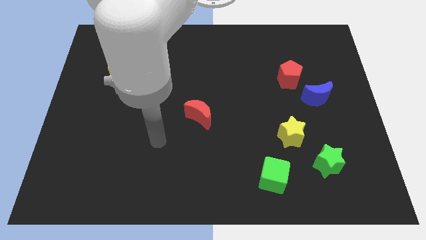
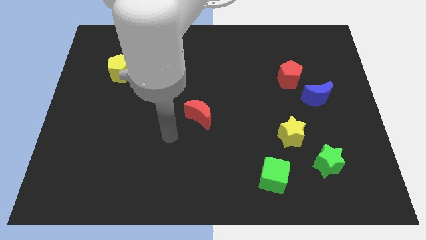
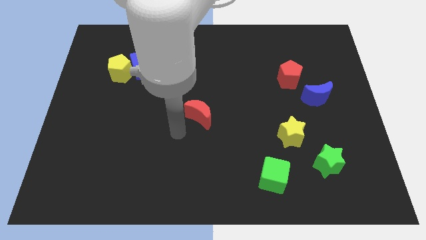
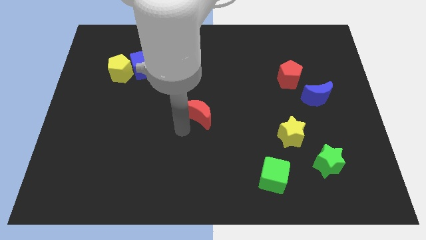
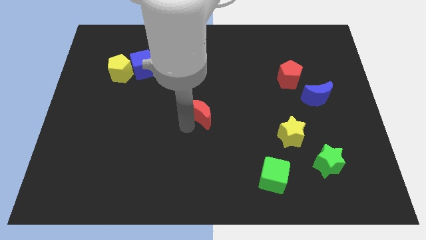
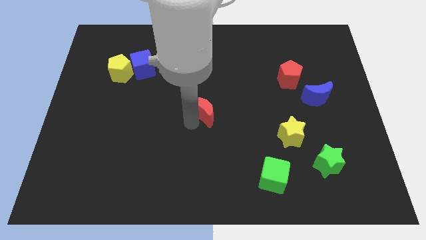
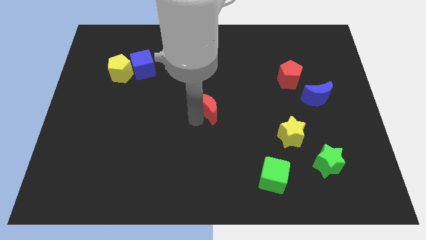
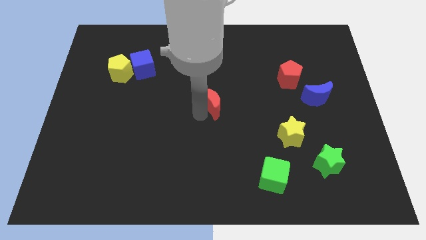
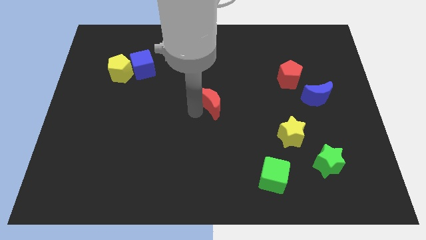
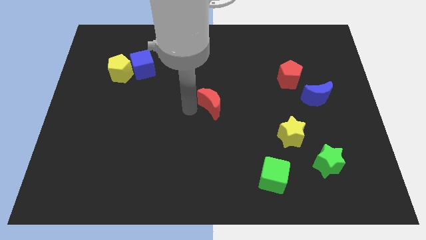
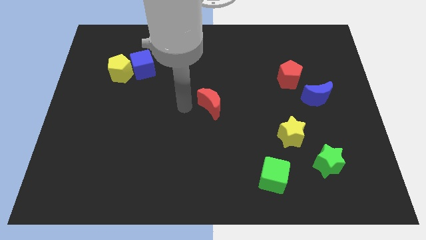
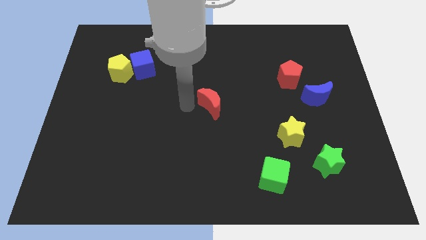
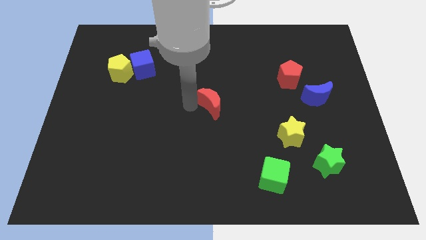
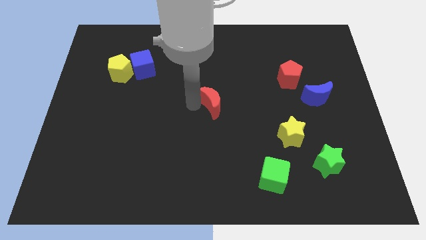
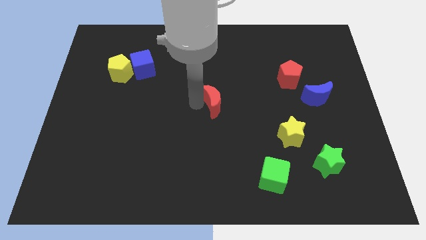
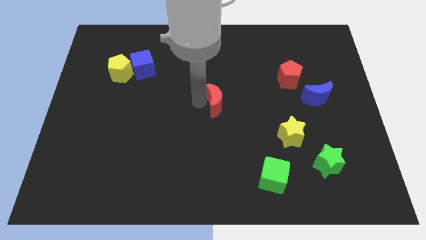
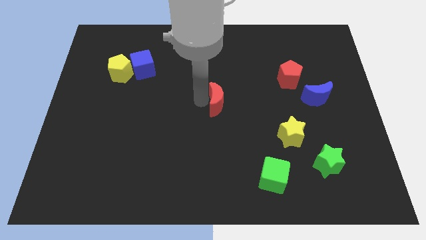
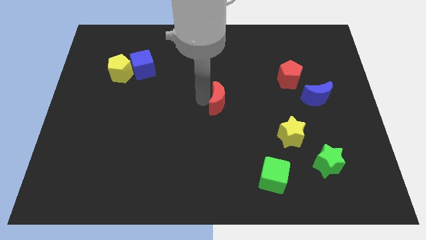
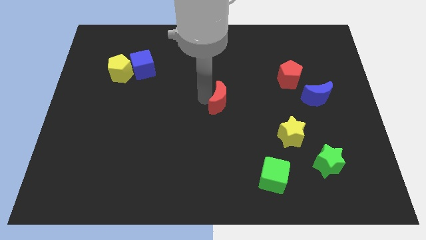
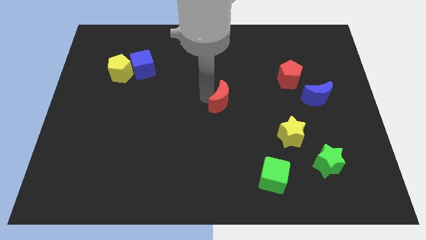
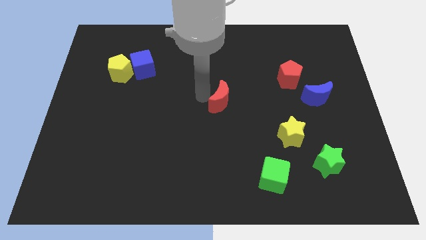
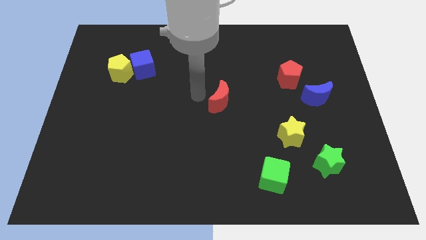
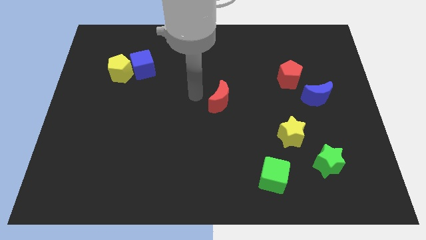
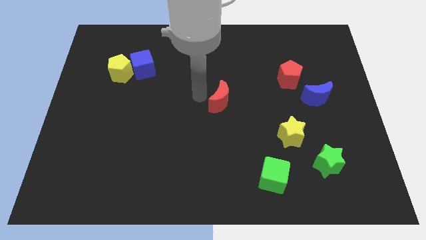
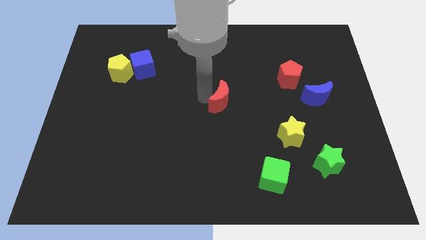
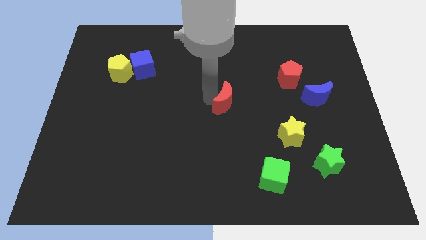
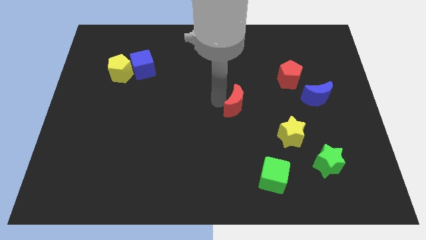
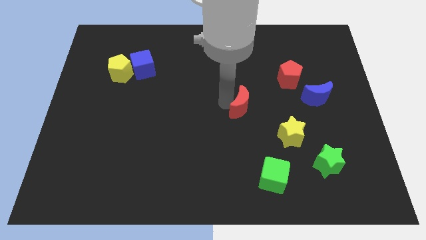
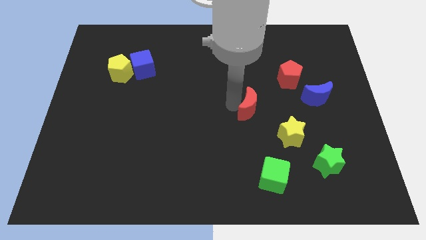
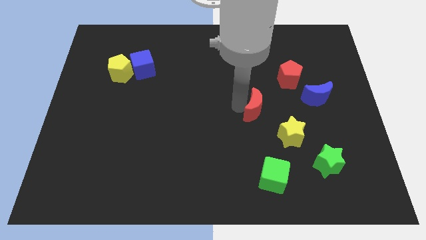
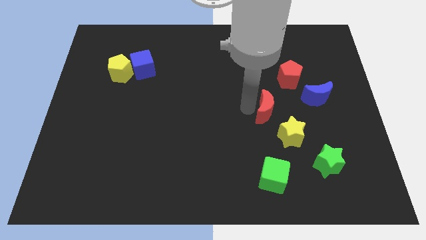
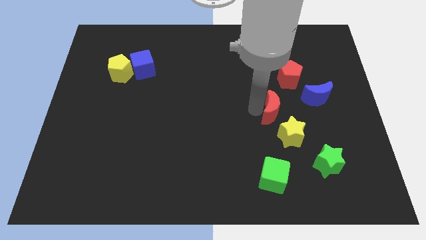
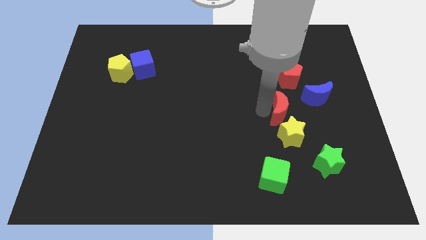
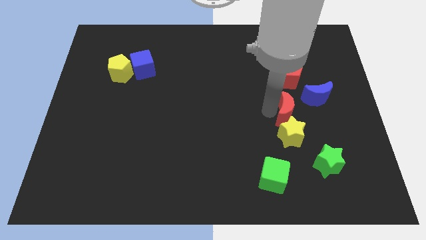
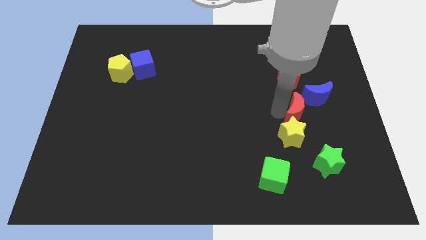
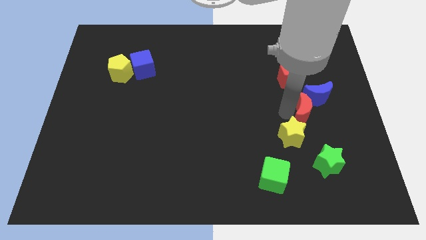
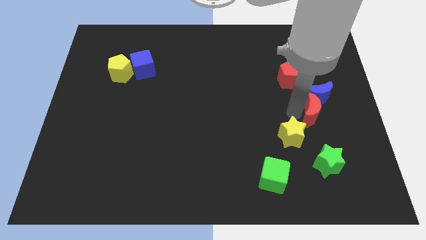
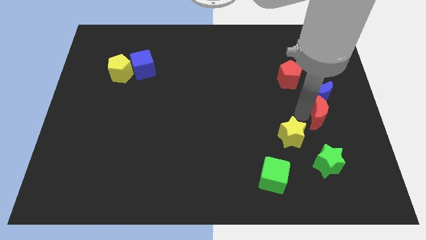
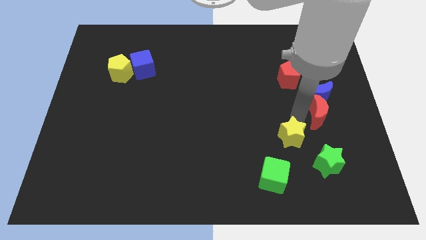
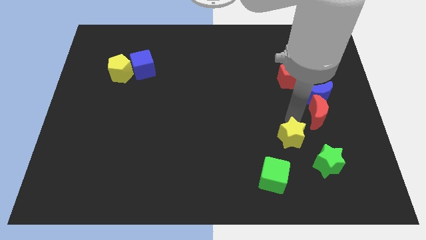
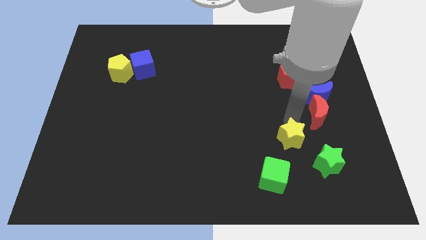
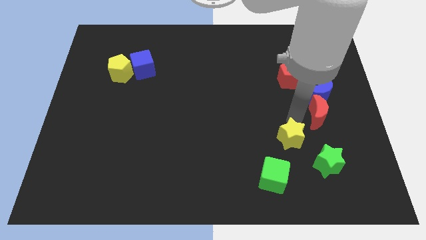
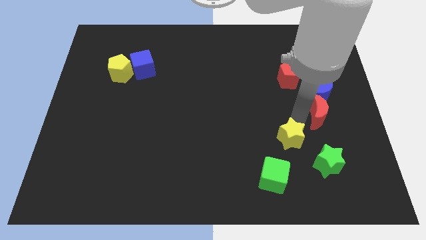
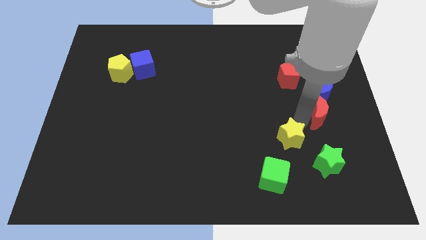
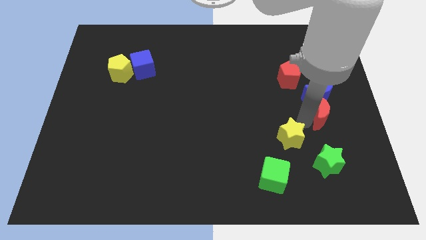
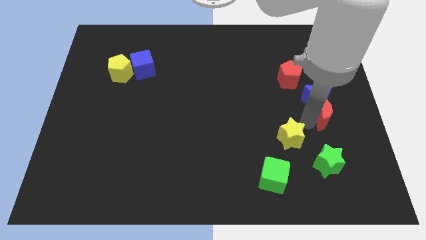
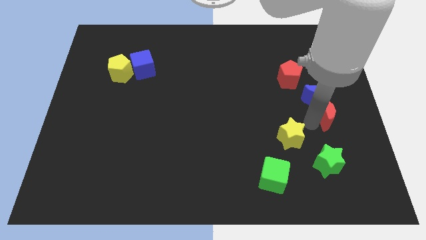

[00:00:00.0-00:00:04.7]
put the red moon to the center right

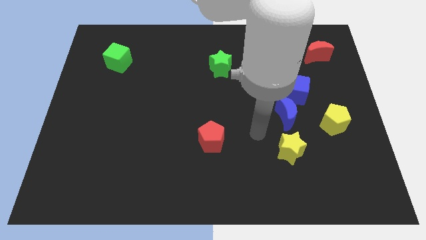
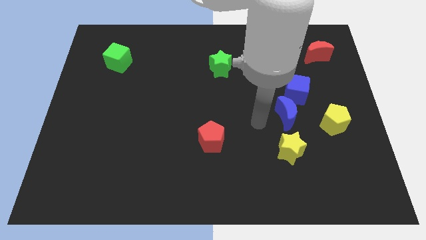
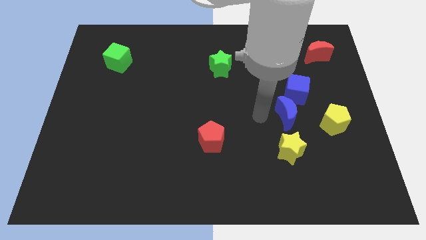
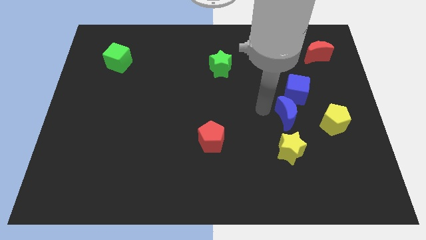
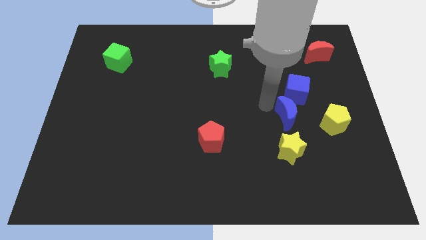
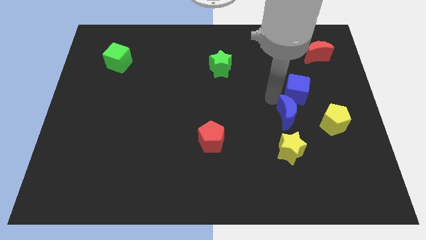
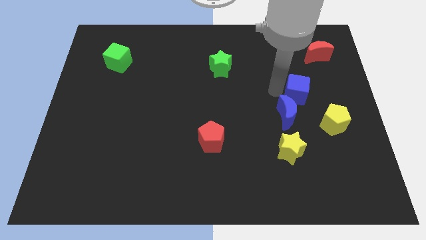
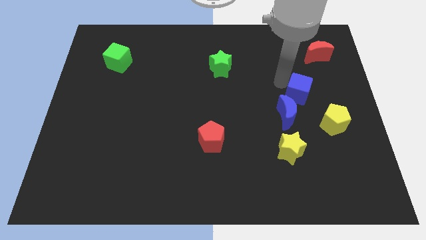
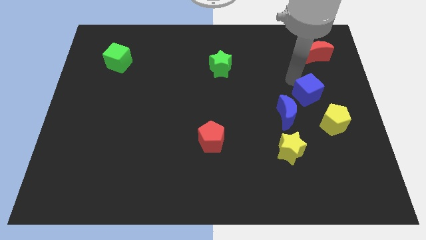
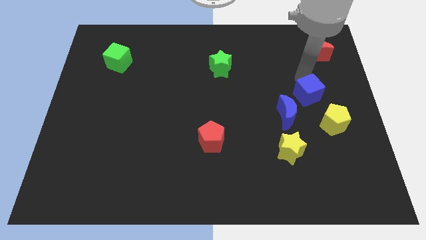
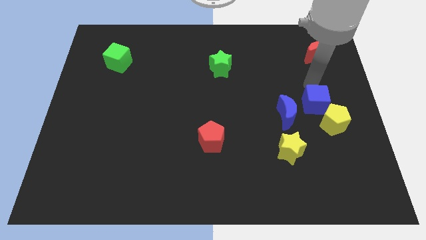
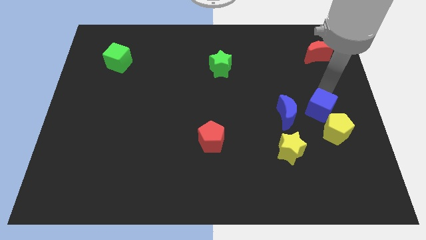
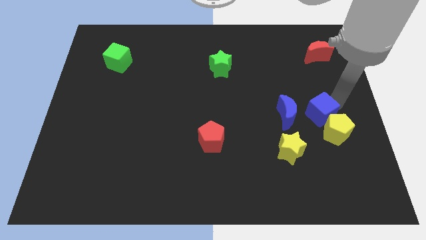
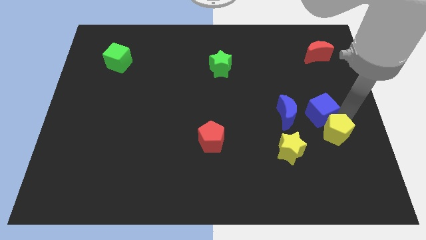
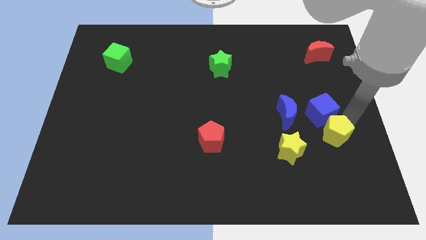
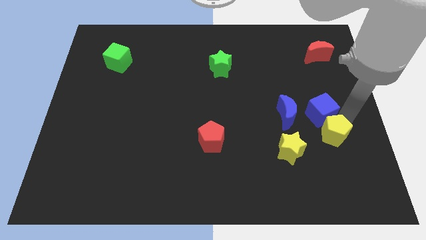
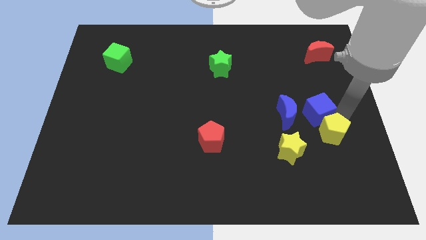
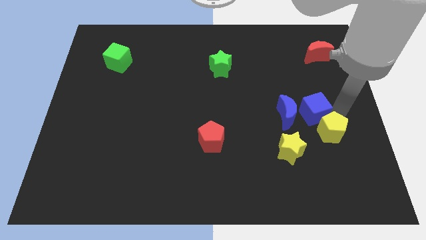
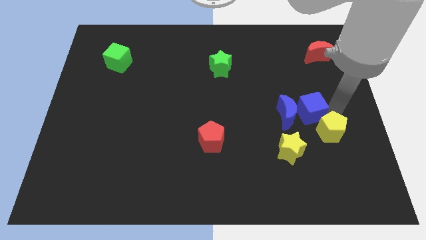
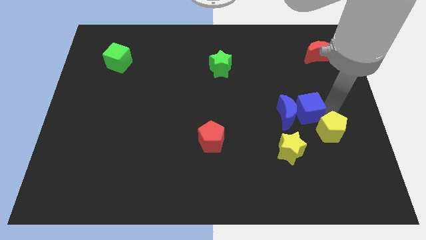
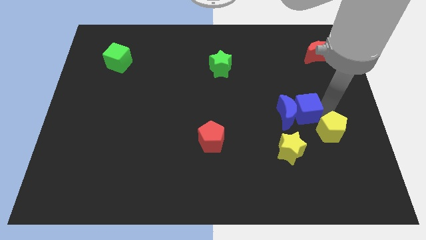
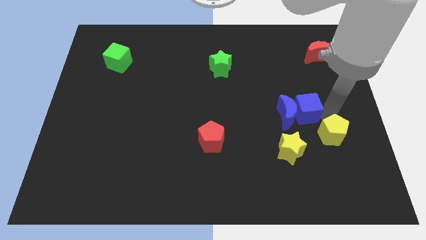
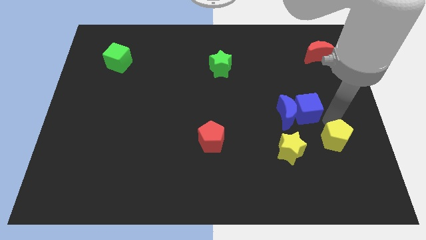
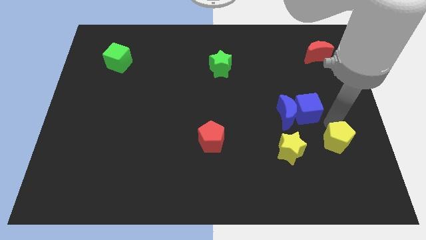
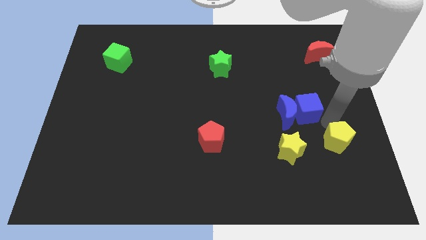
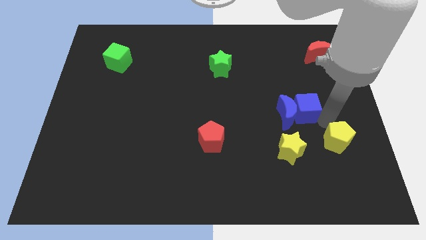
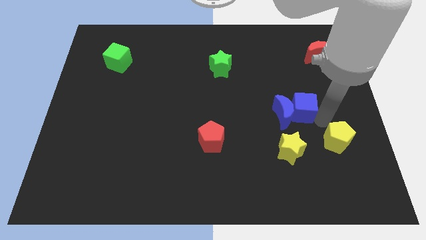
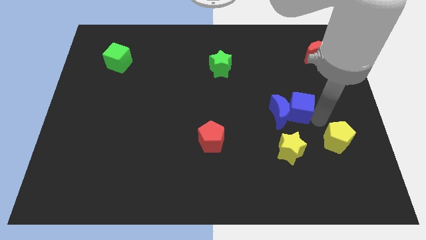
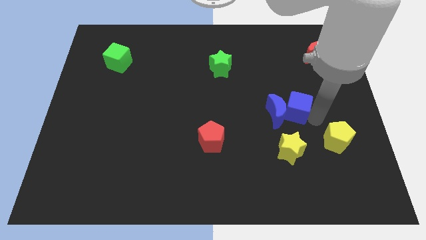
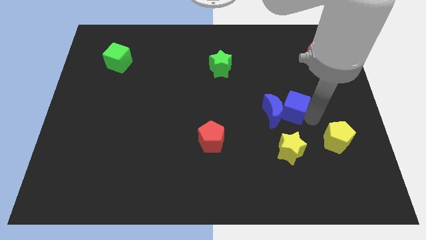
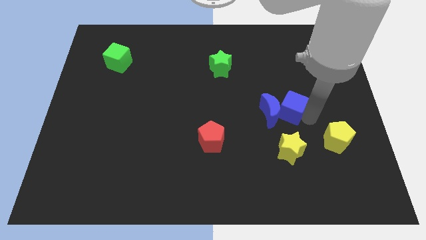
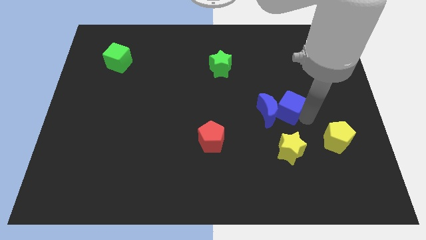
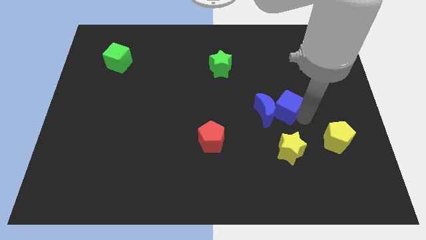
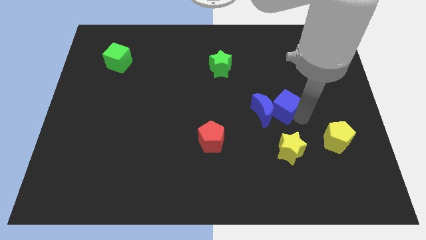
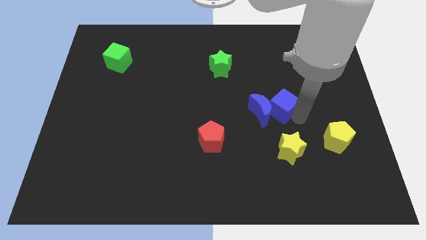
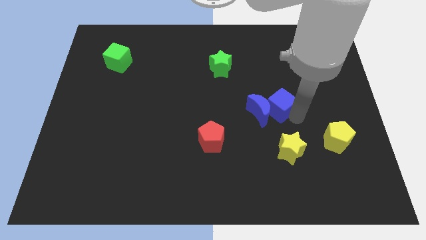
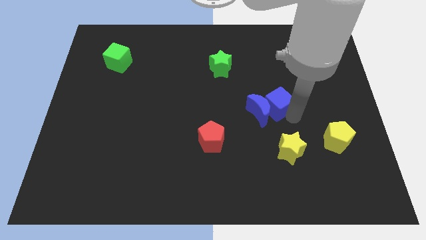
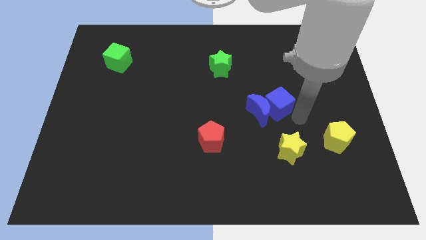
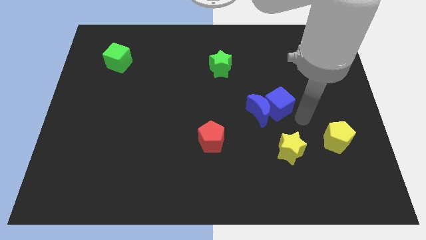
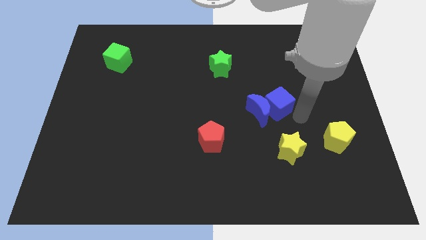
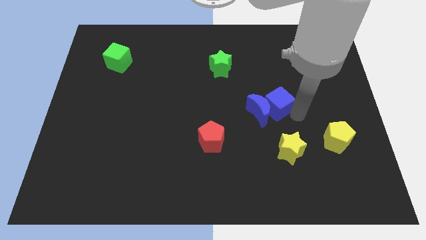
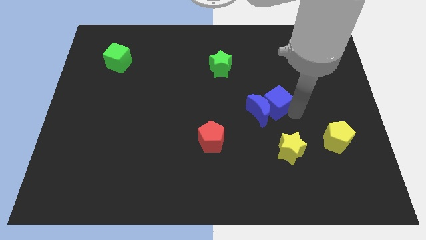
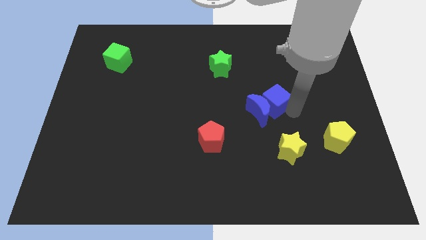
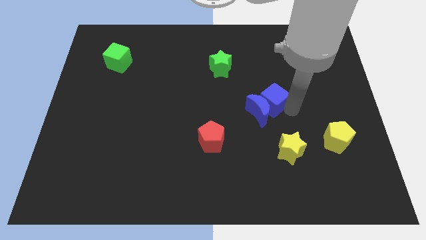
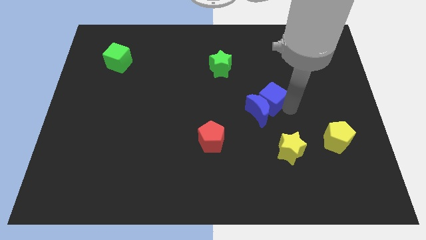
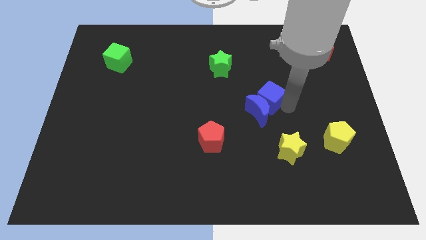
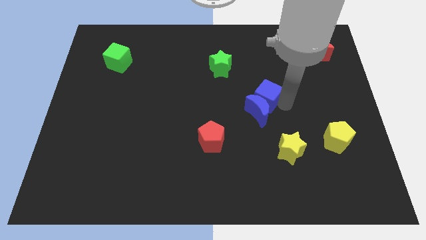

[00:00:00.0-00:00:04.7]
put the blue cube to the middle
